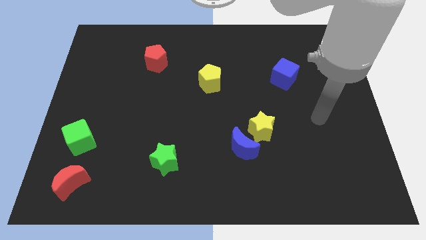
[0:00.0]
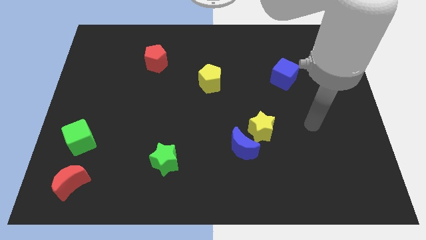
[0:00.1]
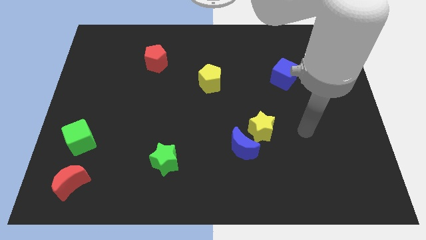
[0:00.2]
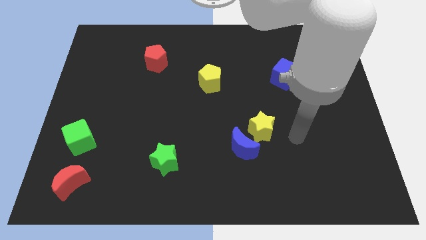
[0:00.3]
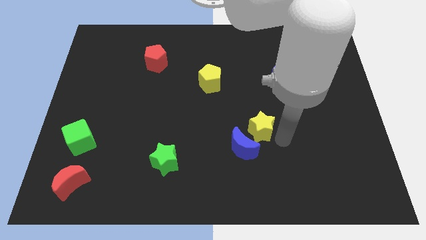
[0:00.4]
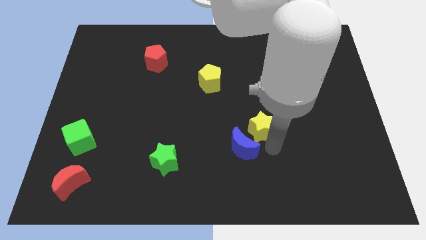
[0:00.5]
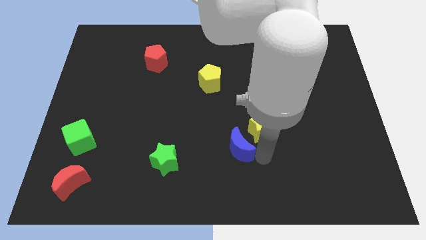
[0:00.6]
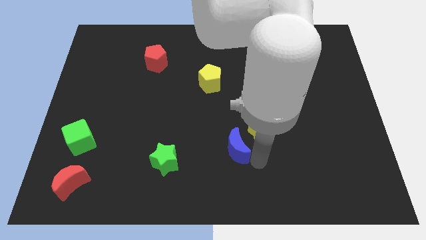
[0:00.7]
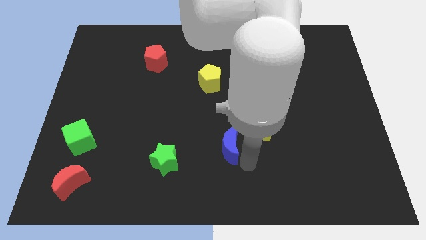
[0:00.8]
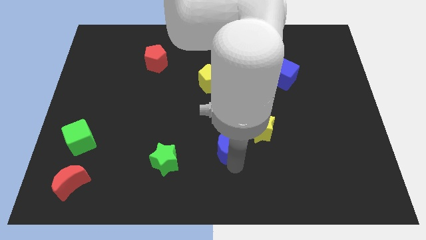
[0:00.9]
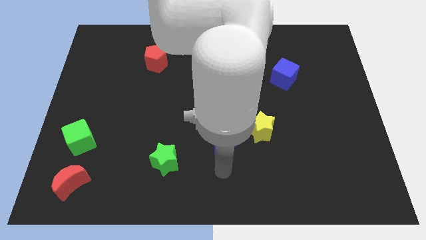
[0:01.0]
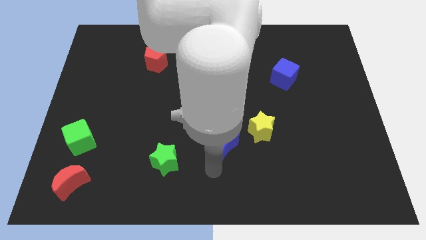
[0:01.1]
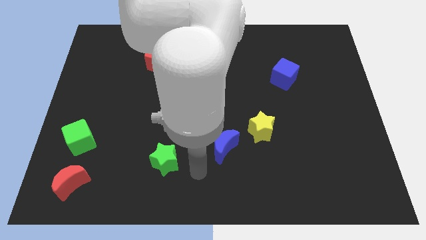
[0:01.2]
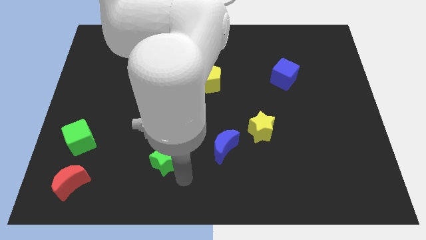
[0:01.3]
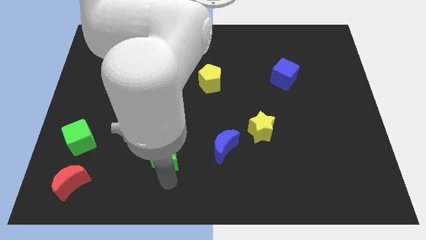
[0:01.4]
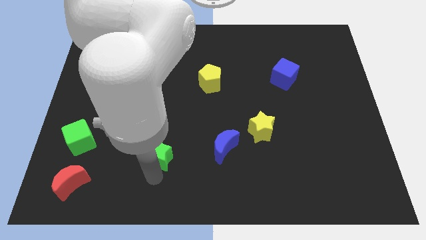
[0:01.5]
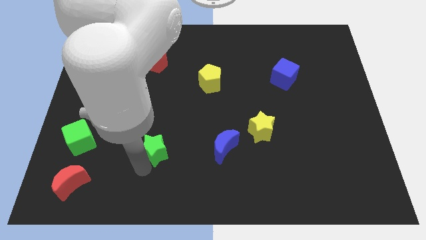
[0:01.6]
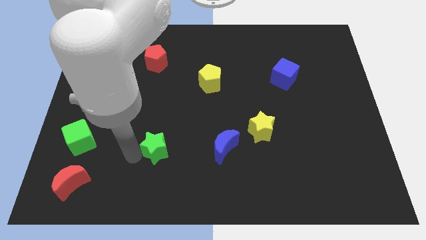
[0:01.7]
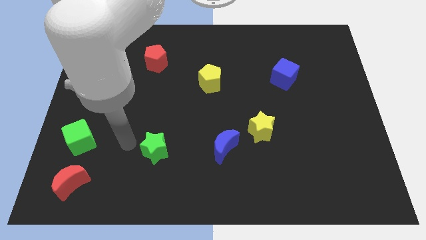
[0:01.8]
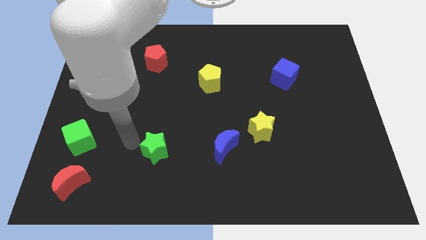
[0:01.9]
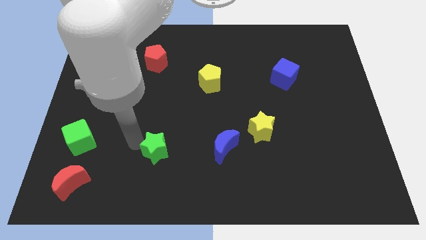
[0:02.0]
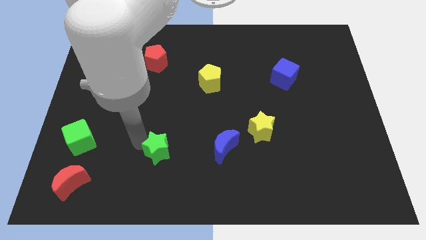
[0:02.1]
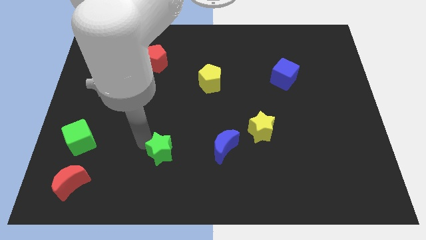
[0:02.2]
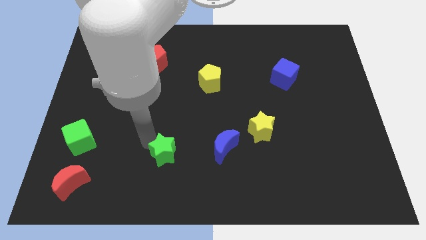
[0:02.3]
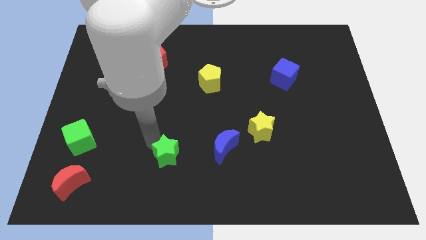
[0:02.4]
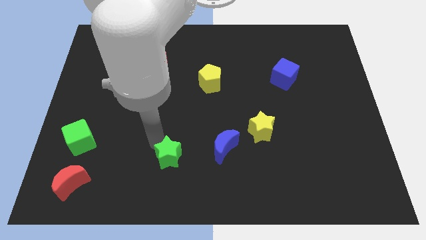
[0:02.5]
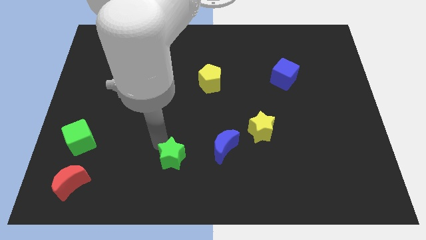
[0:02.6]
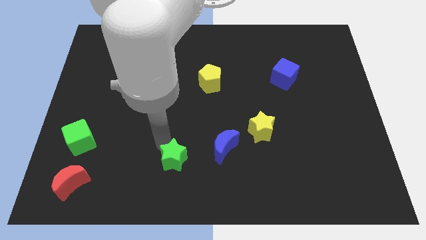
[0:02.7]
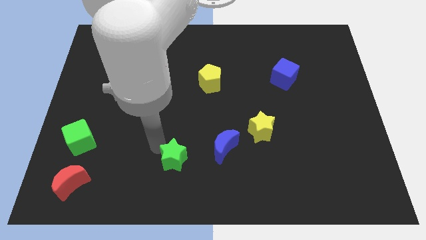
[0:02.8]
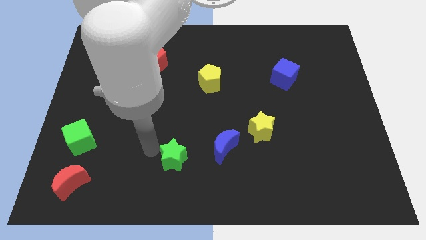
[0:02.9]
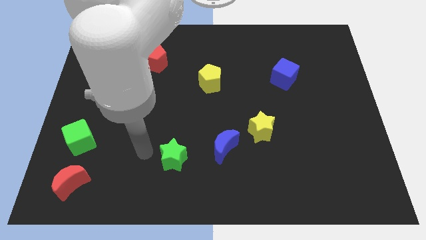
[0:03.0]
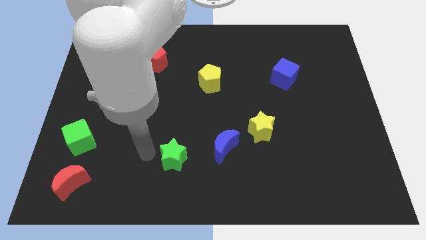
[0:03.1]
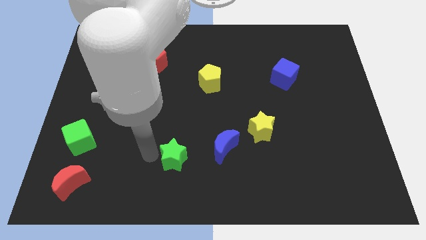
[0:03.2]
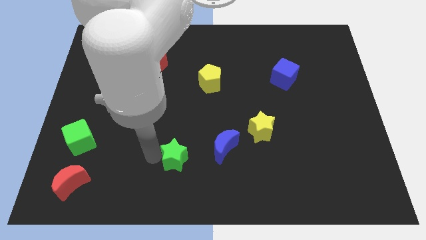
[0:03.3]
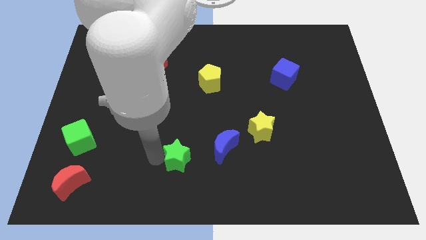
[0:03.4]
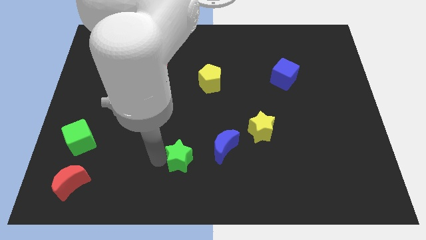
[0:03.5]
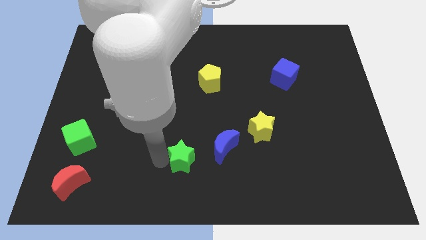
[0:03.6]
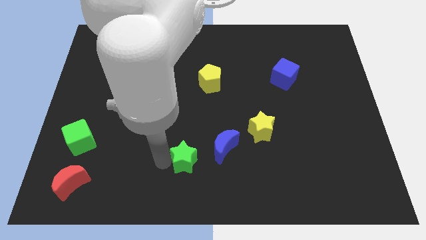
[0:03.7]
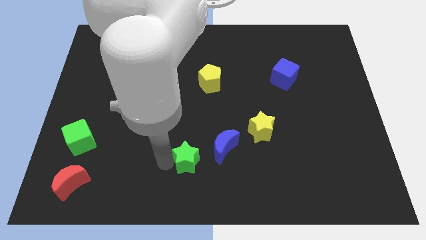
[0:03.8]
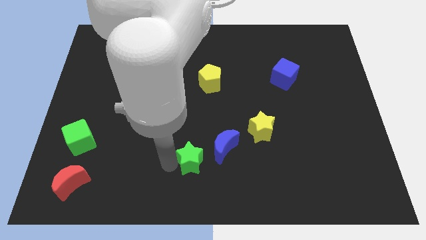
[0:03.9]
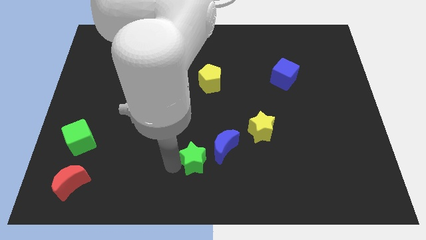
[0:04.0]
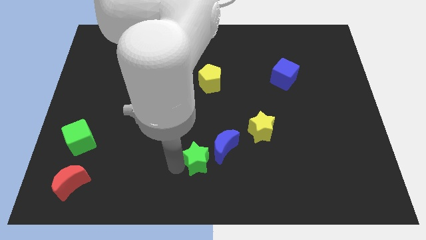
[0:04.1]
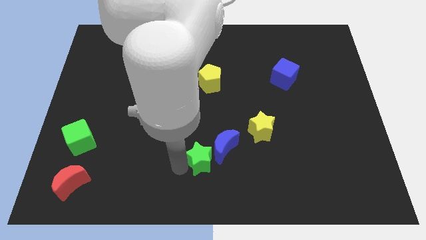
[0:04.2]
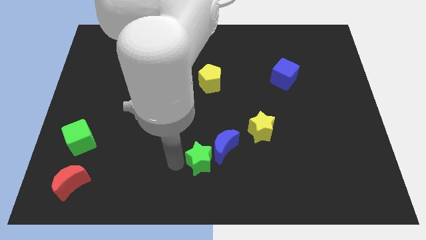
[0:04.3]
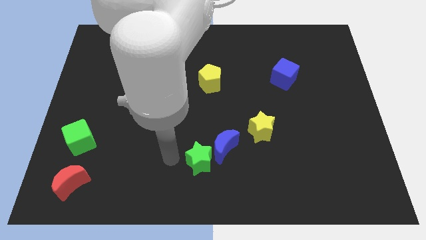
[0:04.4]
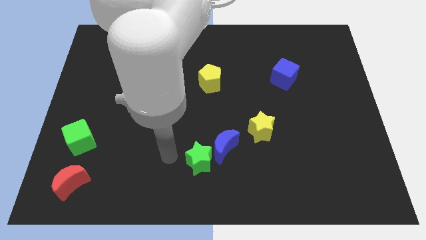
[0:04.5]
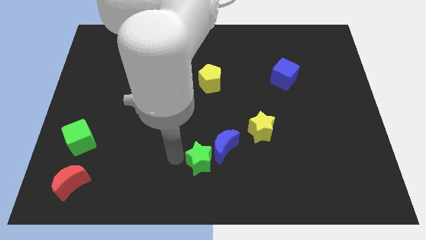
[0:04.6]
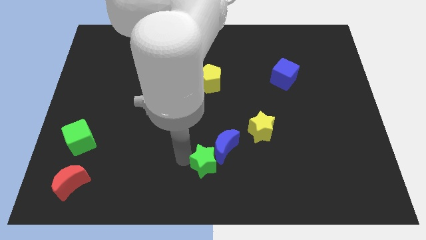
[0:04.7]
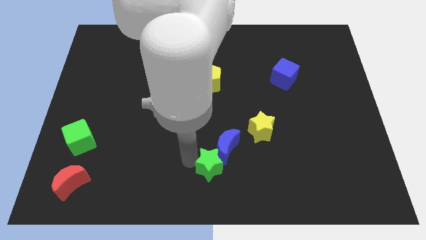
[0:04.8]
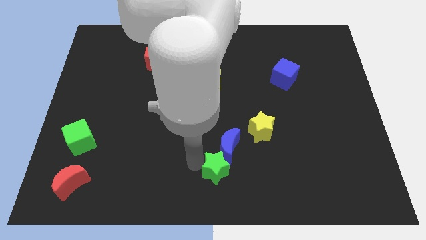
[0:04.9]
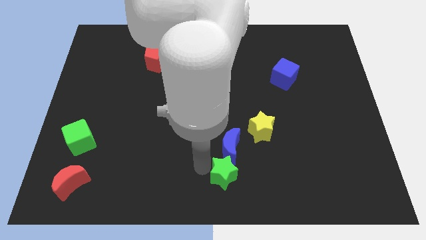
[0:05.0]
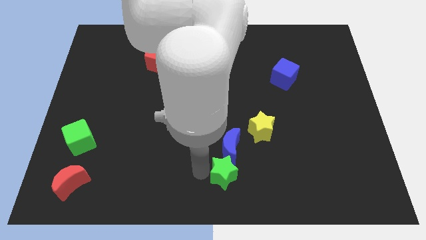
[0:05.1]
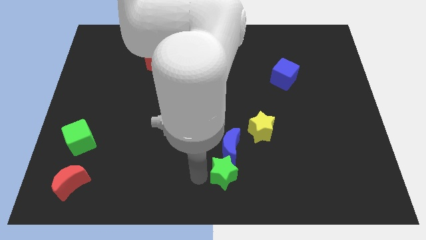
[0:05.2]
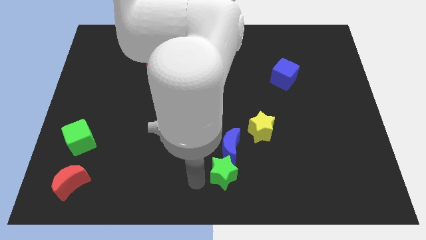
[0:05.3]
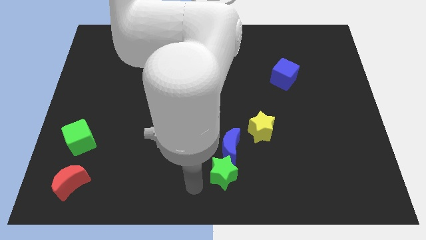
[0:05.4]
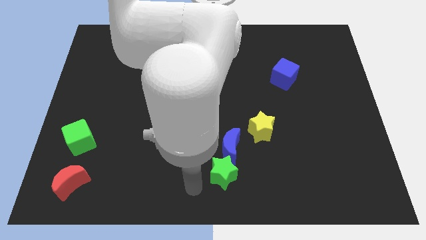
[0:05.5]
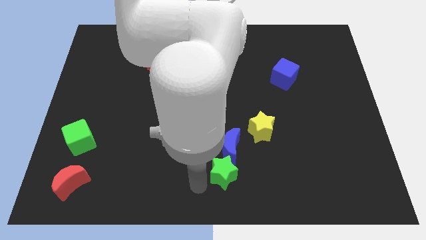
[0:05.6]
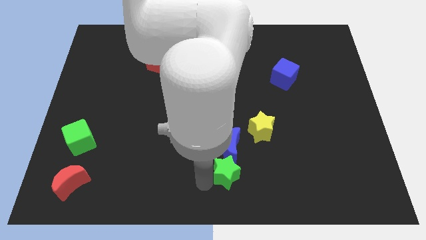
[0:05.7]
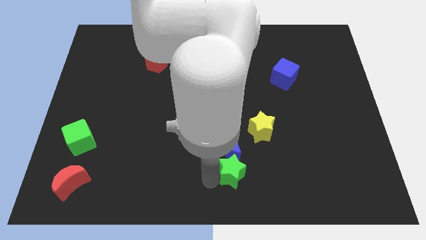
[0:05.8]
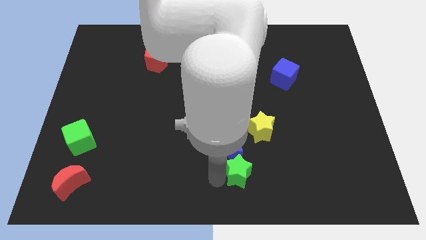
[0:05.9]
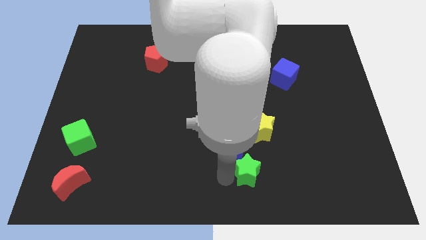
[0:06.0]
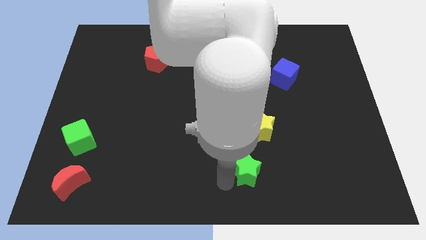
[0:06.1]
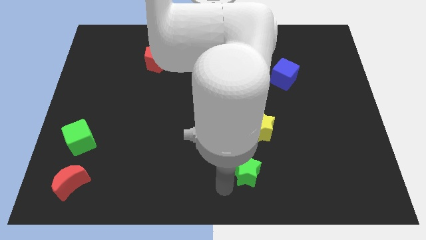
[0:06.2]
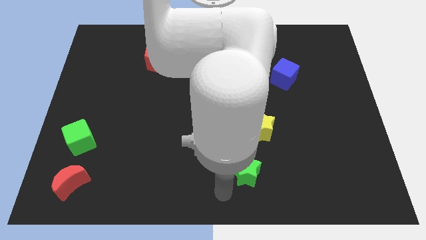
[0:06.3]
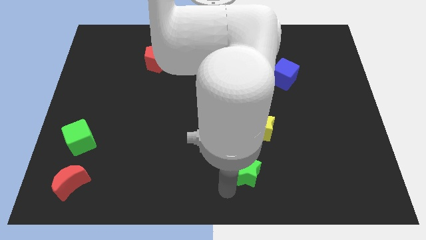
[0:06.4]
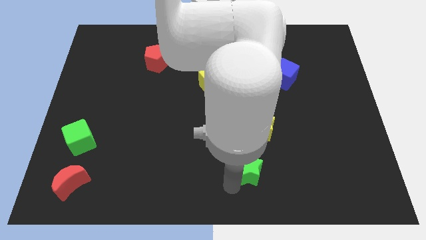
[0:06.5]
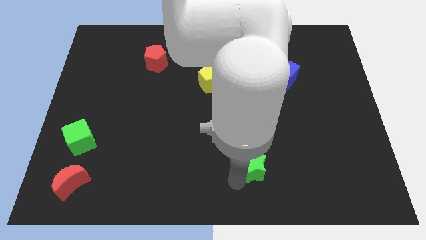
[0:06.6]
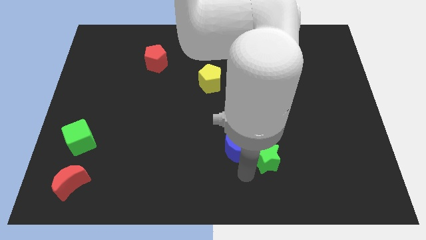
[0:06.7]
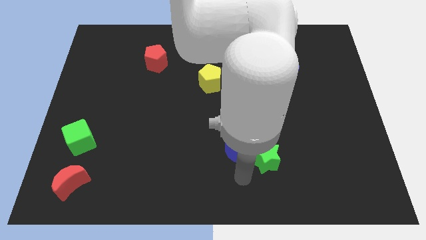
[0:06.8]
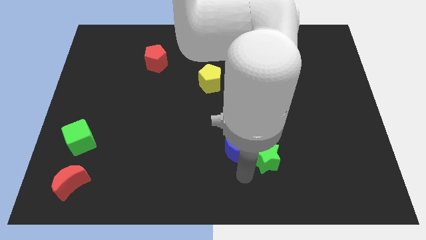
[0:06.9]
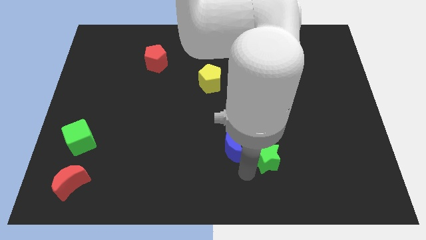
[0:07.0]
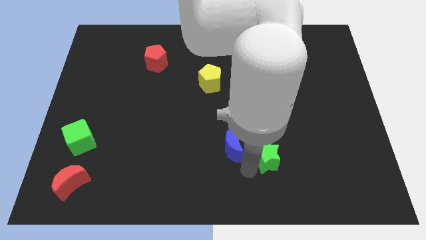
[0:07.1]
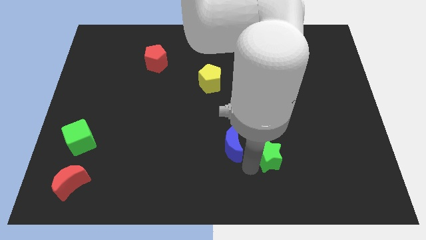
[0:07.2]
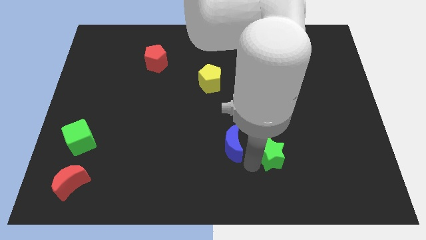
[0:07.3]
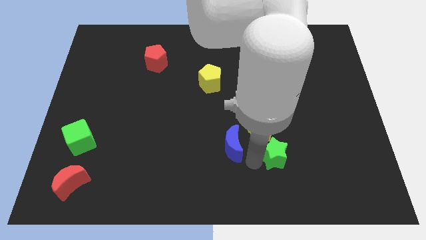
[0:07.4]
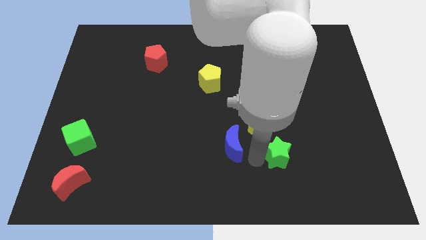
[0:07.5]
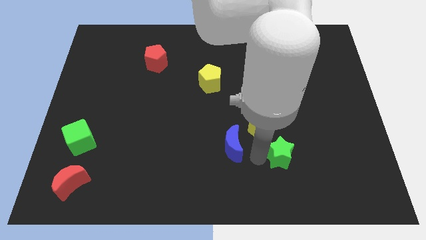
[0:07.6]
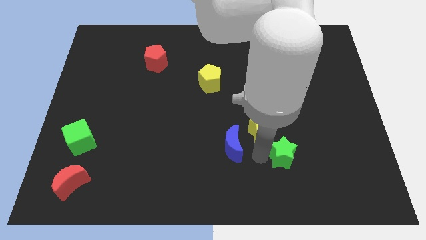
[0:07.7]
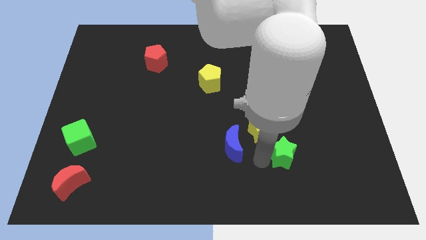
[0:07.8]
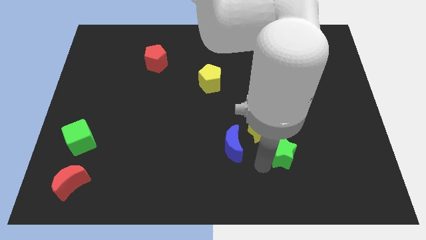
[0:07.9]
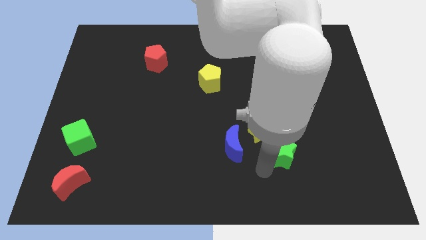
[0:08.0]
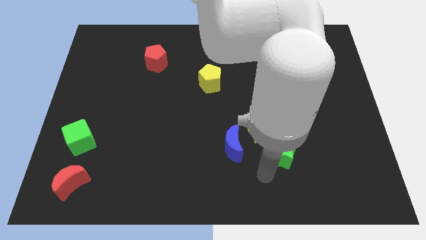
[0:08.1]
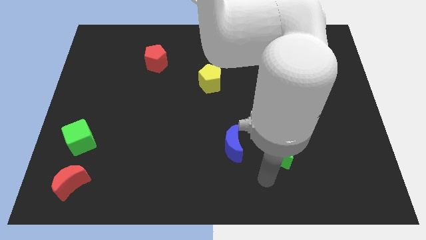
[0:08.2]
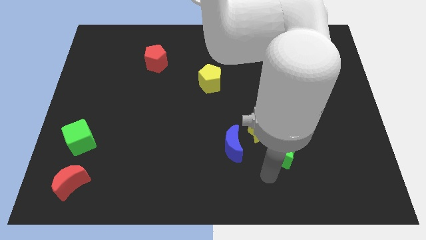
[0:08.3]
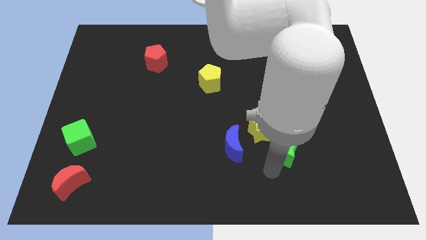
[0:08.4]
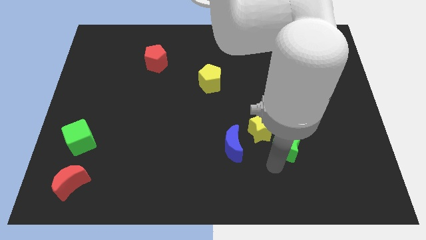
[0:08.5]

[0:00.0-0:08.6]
put the green star just right of the yellow star
